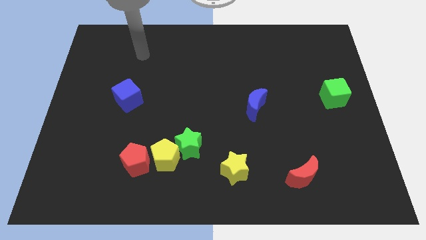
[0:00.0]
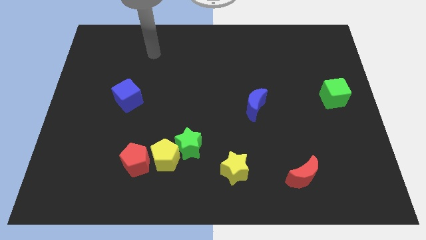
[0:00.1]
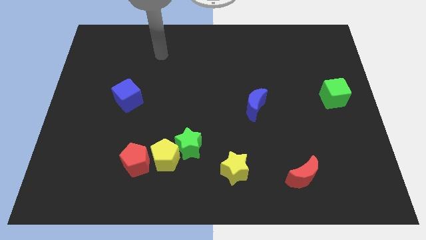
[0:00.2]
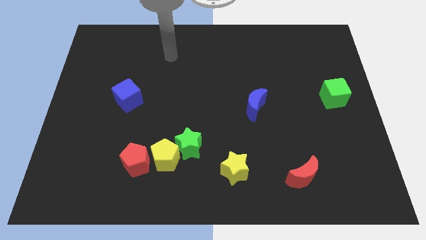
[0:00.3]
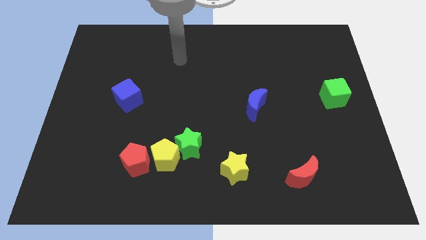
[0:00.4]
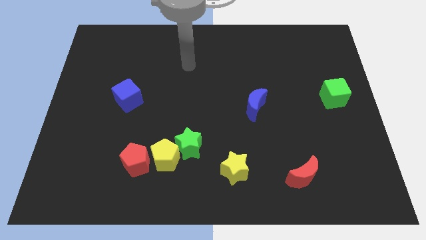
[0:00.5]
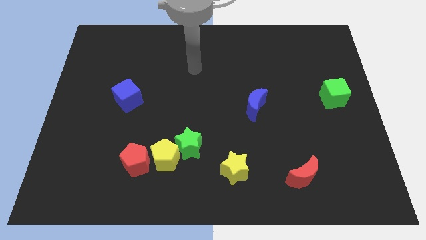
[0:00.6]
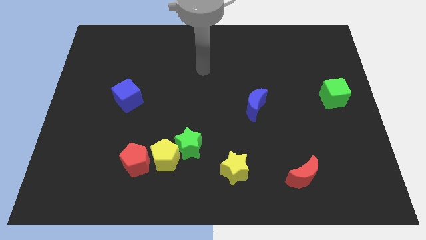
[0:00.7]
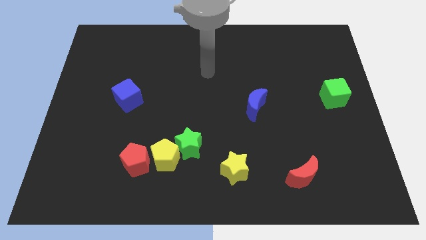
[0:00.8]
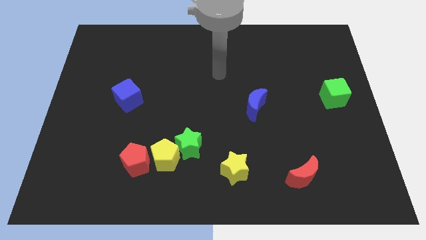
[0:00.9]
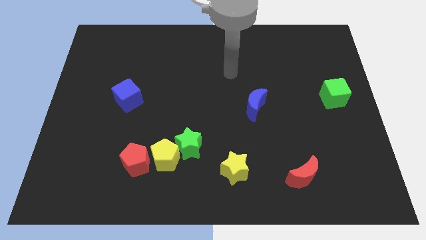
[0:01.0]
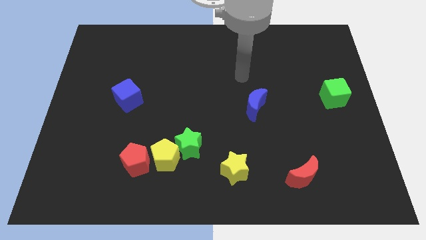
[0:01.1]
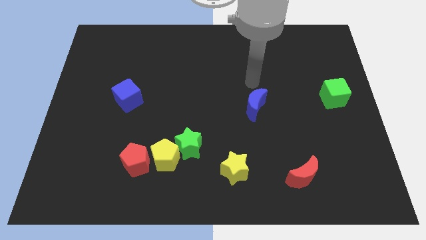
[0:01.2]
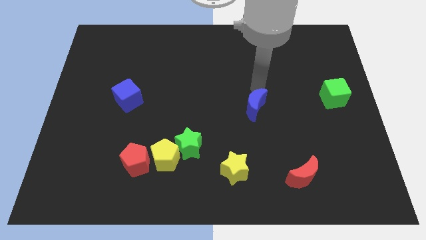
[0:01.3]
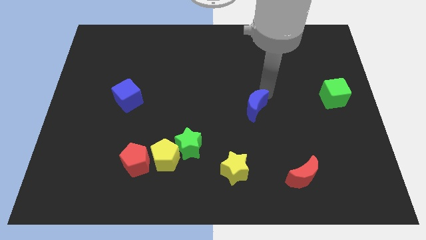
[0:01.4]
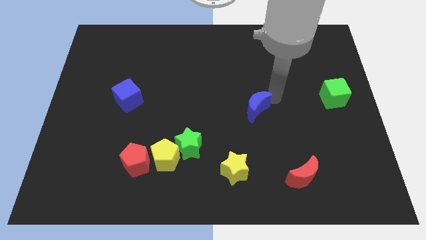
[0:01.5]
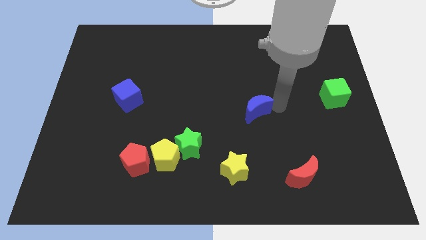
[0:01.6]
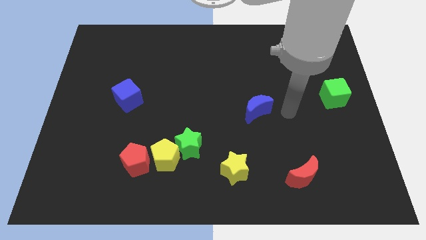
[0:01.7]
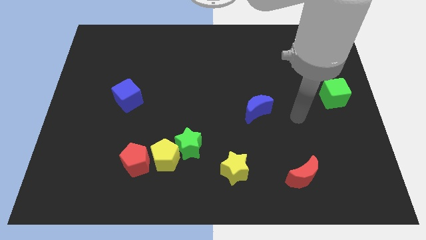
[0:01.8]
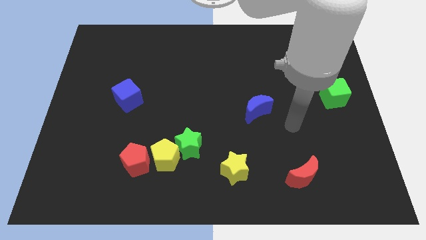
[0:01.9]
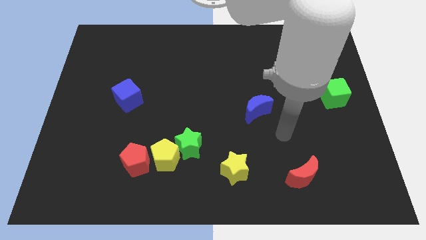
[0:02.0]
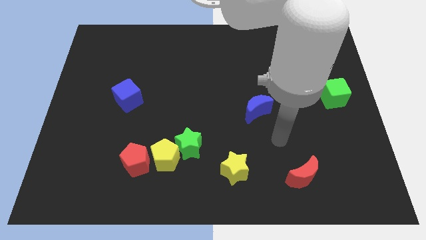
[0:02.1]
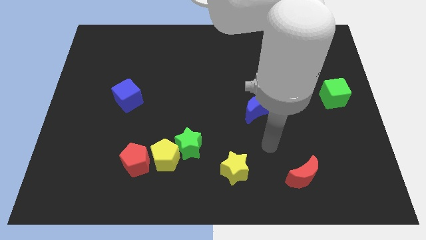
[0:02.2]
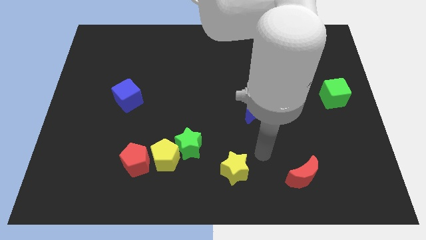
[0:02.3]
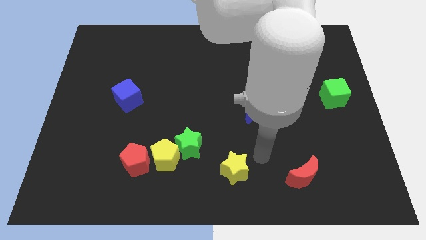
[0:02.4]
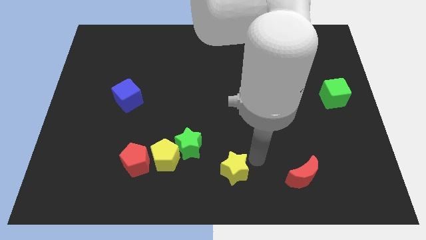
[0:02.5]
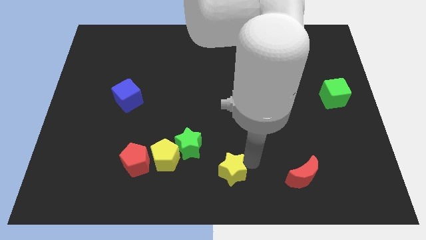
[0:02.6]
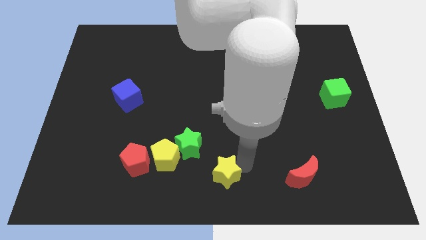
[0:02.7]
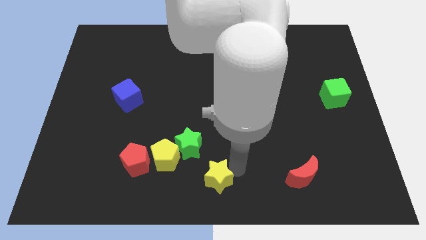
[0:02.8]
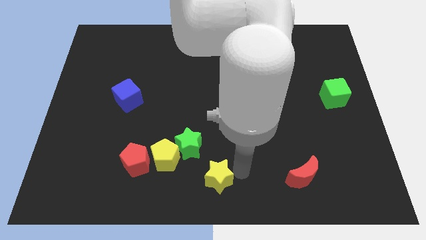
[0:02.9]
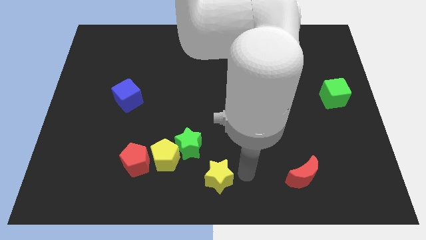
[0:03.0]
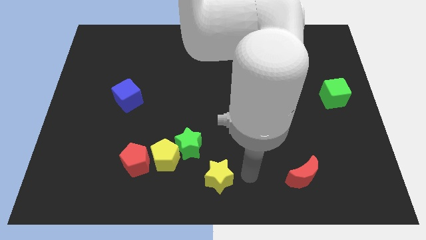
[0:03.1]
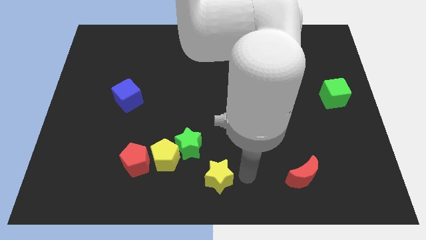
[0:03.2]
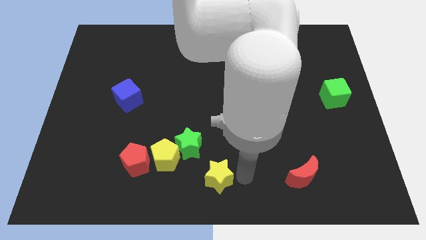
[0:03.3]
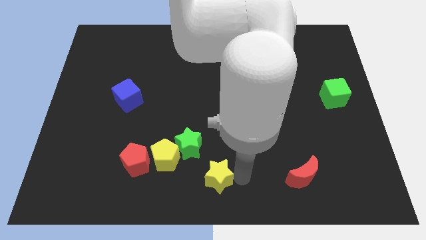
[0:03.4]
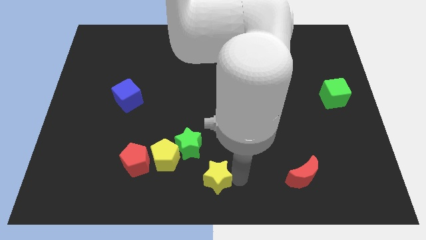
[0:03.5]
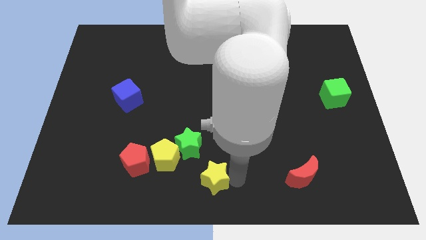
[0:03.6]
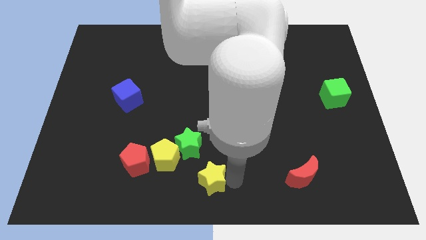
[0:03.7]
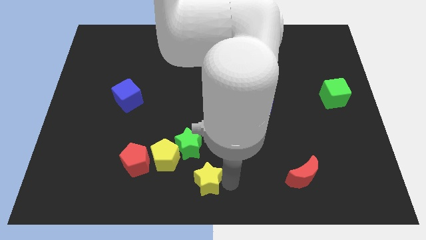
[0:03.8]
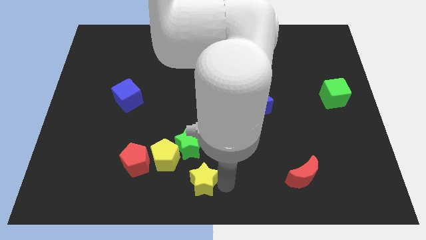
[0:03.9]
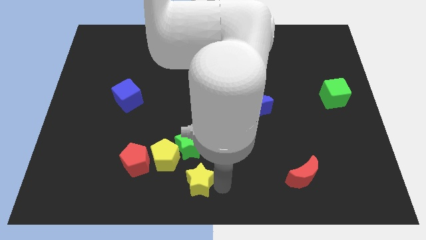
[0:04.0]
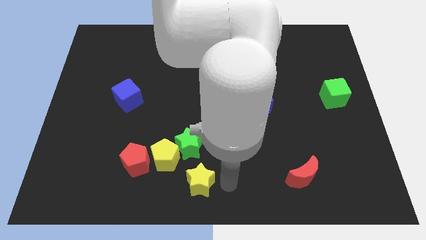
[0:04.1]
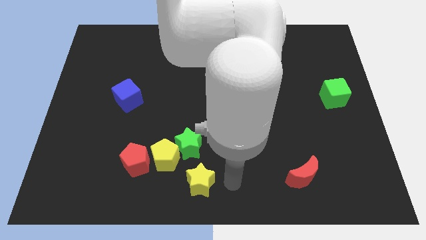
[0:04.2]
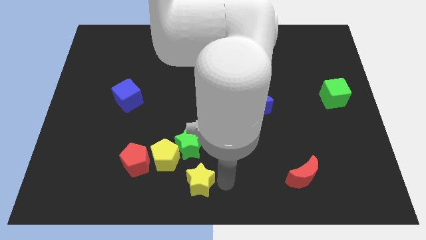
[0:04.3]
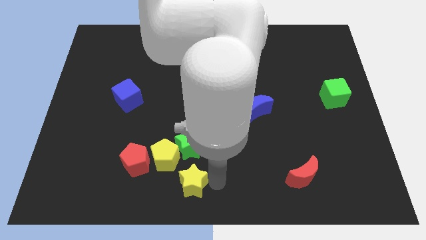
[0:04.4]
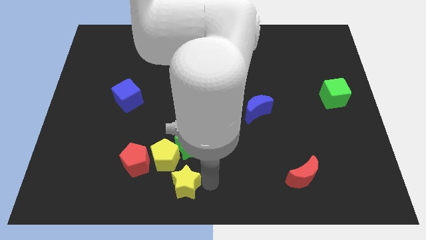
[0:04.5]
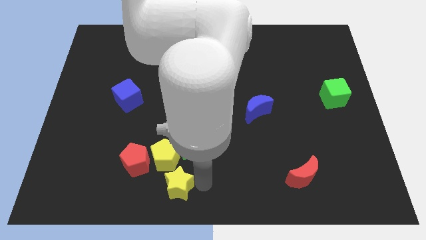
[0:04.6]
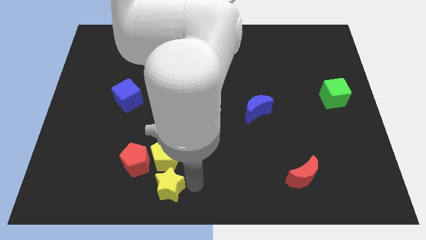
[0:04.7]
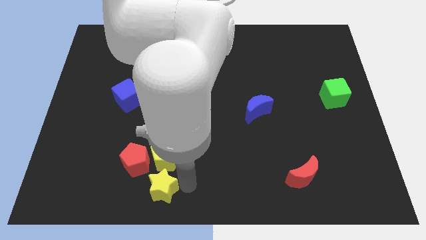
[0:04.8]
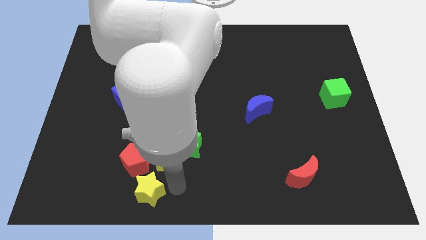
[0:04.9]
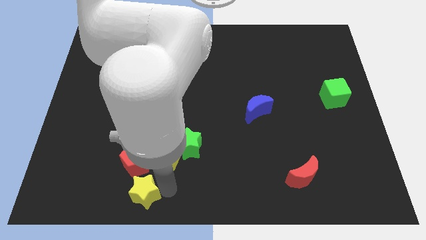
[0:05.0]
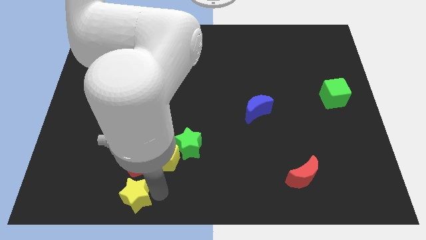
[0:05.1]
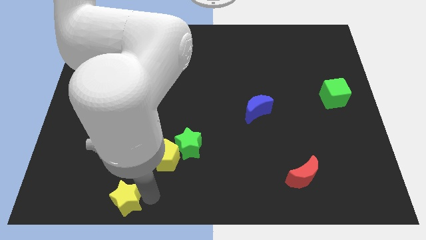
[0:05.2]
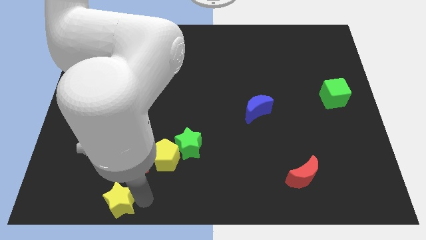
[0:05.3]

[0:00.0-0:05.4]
slide the yellow star left

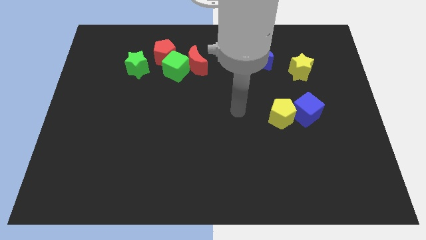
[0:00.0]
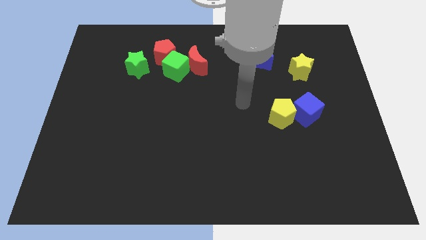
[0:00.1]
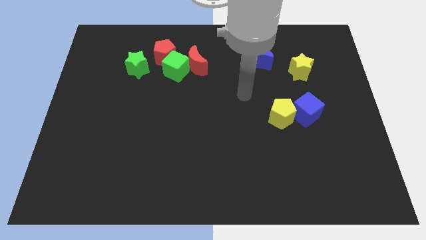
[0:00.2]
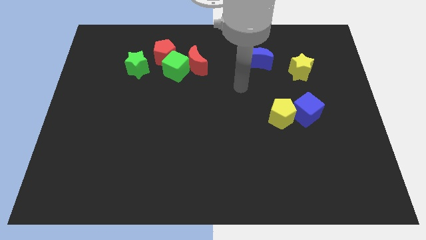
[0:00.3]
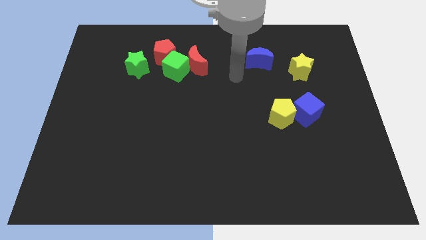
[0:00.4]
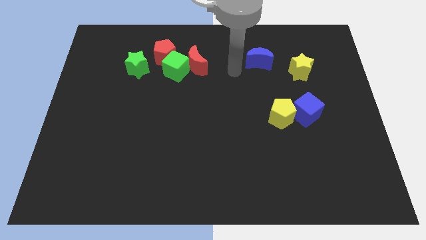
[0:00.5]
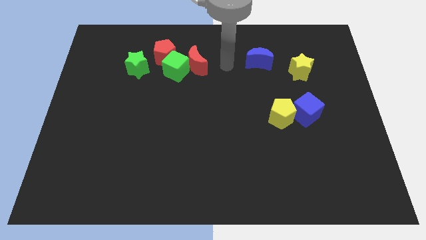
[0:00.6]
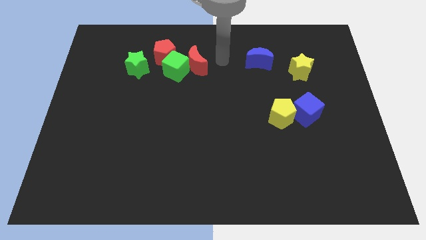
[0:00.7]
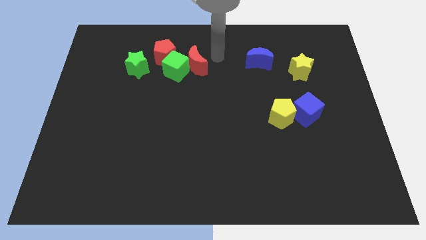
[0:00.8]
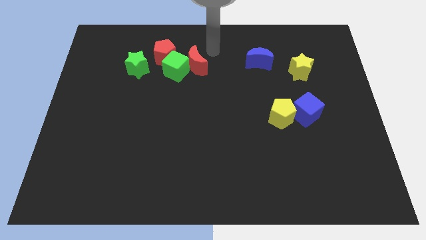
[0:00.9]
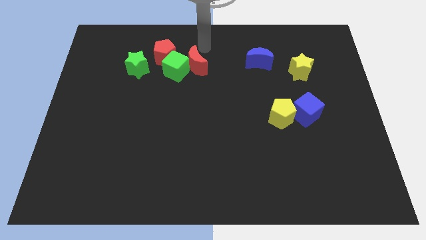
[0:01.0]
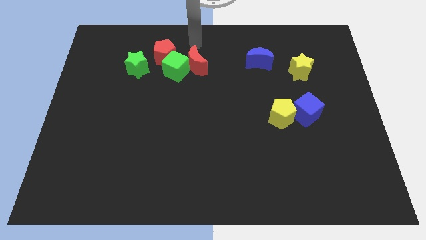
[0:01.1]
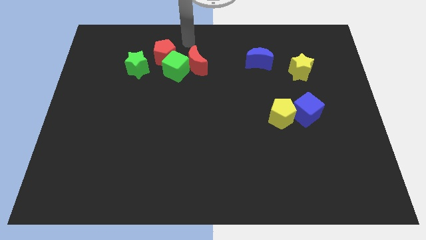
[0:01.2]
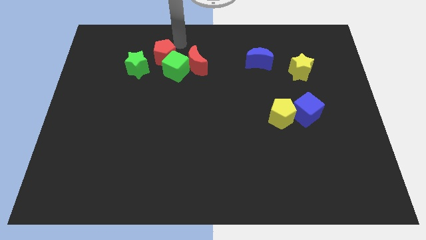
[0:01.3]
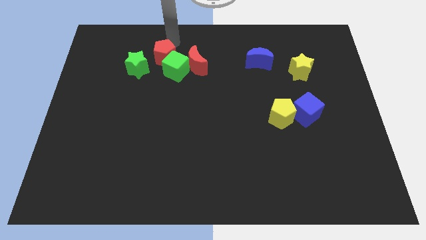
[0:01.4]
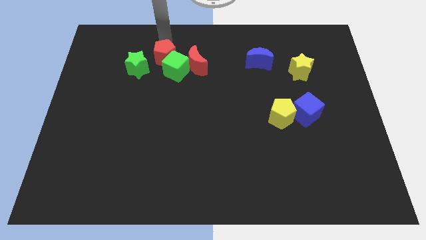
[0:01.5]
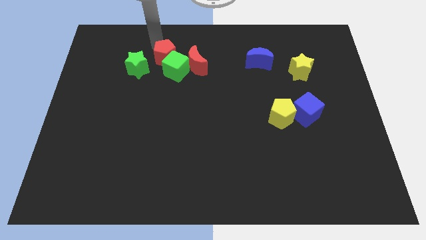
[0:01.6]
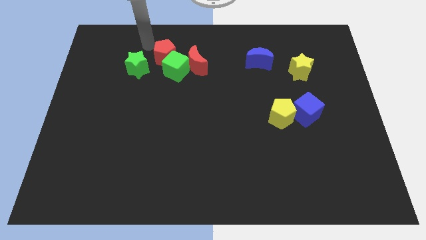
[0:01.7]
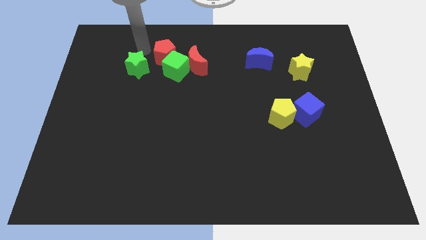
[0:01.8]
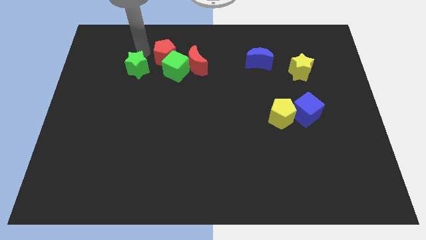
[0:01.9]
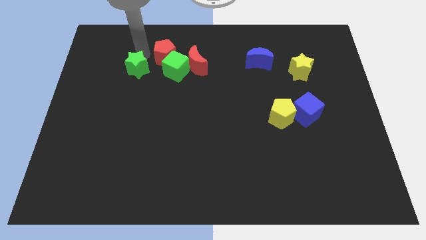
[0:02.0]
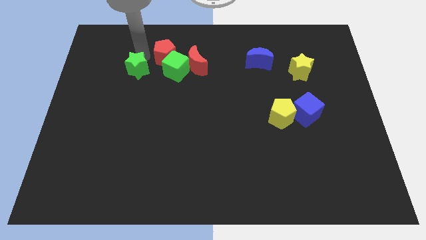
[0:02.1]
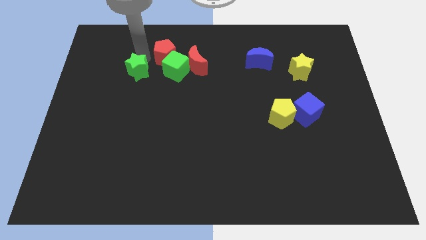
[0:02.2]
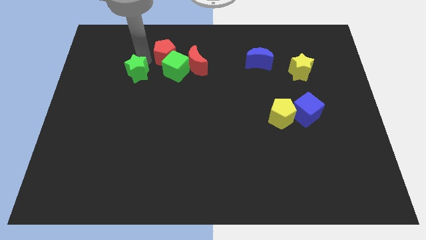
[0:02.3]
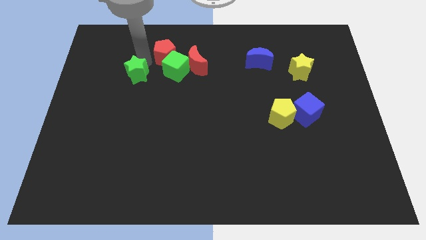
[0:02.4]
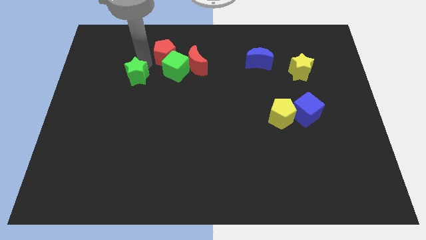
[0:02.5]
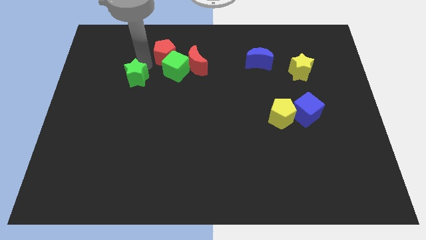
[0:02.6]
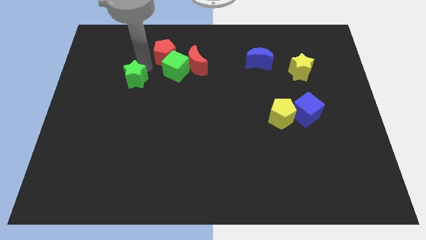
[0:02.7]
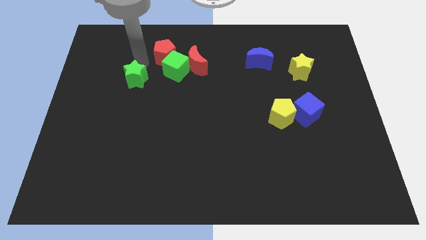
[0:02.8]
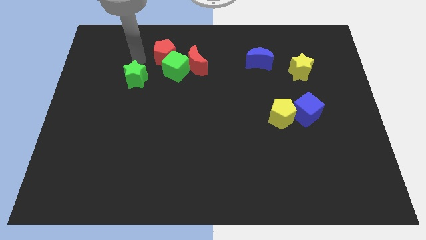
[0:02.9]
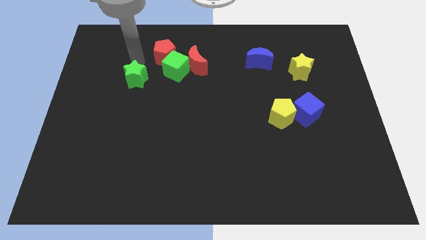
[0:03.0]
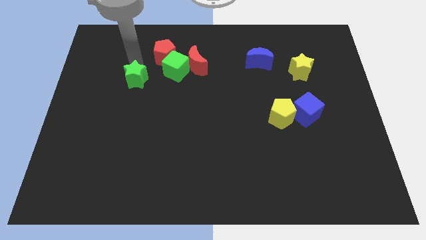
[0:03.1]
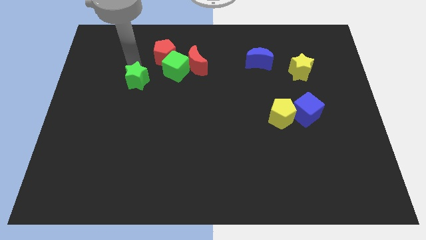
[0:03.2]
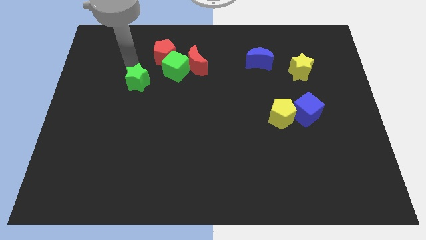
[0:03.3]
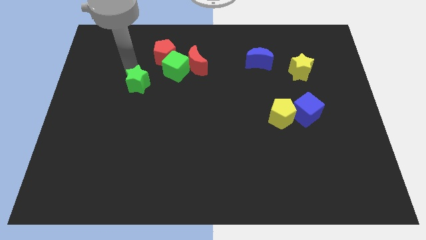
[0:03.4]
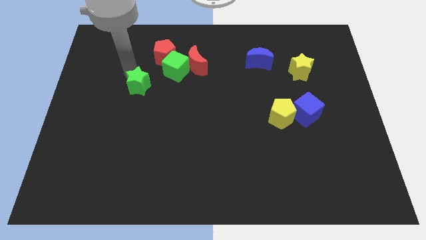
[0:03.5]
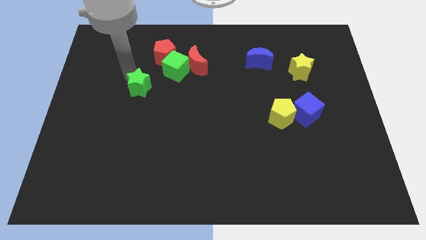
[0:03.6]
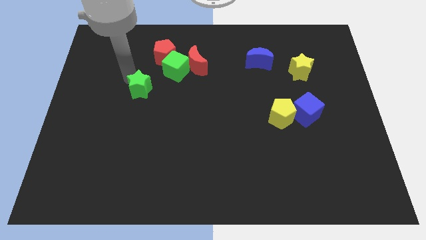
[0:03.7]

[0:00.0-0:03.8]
push the green star down a little bit
